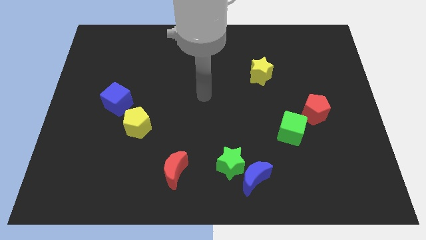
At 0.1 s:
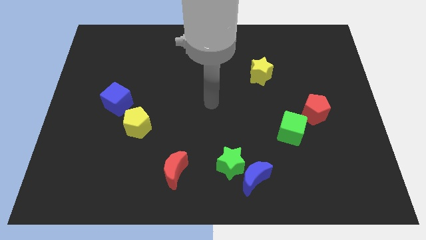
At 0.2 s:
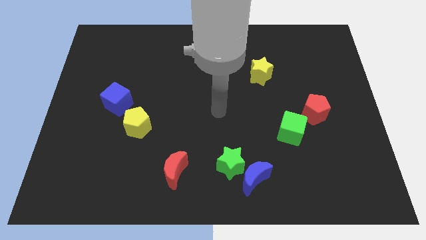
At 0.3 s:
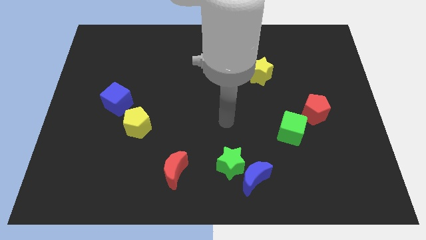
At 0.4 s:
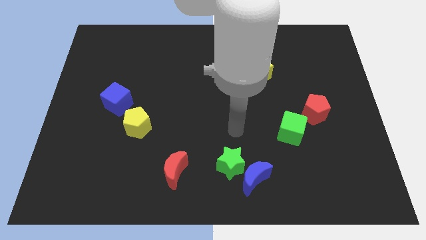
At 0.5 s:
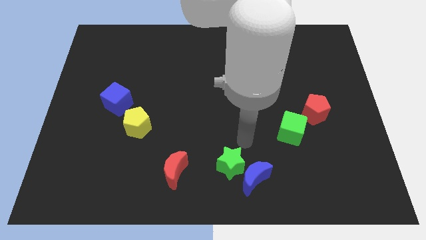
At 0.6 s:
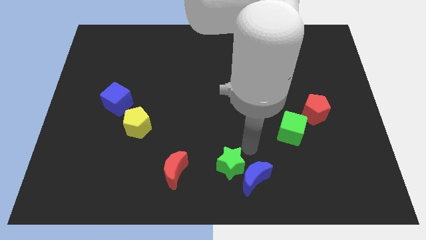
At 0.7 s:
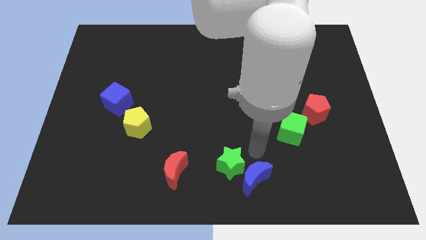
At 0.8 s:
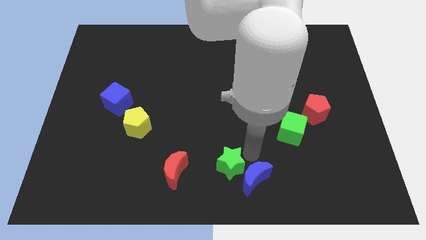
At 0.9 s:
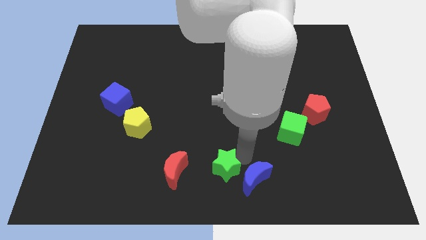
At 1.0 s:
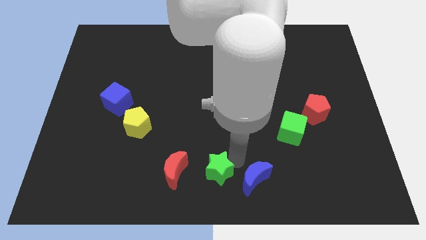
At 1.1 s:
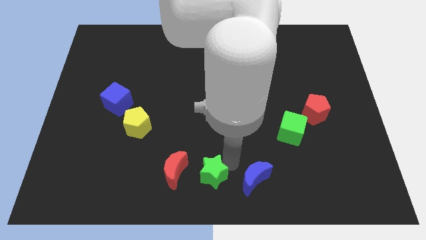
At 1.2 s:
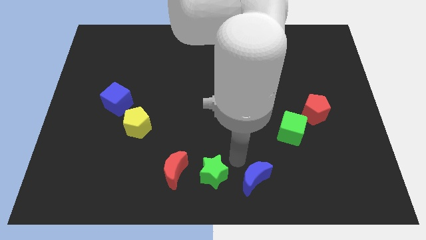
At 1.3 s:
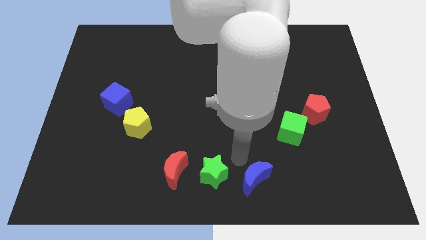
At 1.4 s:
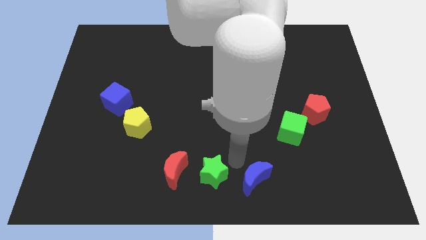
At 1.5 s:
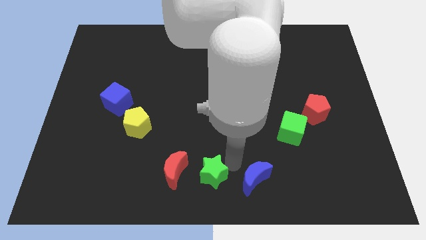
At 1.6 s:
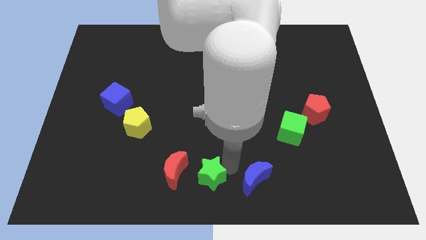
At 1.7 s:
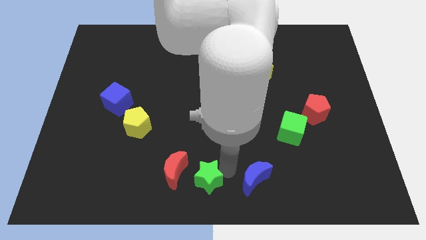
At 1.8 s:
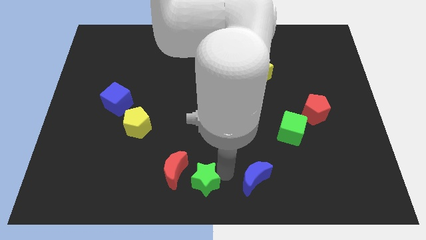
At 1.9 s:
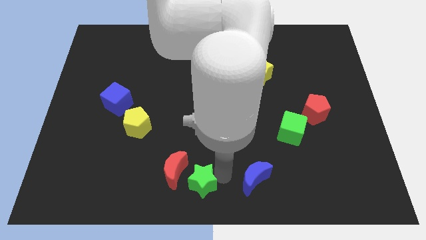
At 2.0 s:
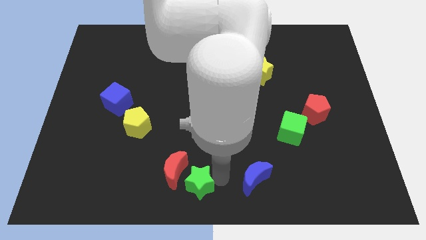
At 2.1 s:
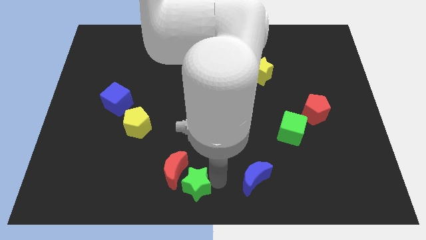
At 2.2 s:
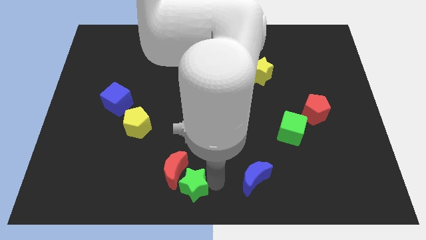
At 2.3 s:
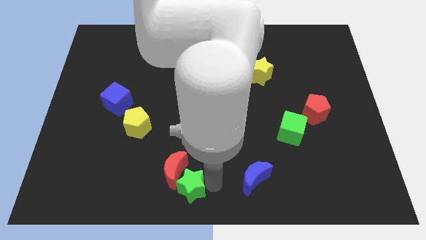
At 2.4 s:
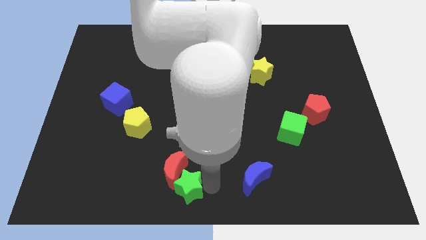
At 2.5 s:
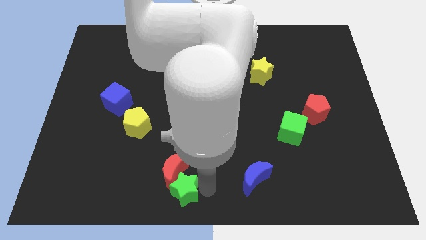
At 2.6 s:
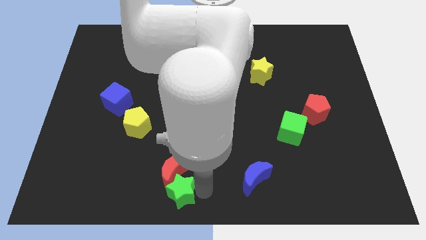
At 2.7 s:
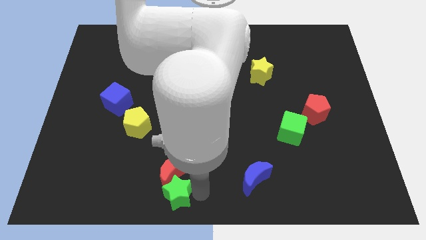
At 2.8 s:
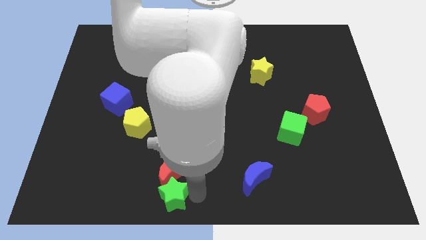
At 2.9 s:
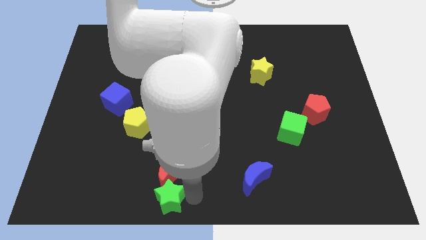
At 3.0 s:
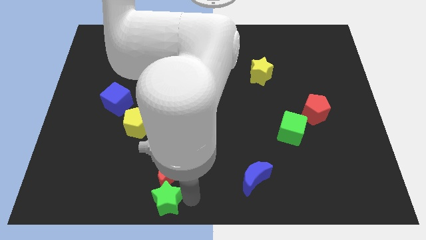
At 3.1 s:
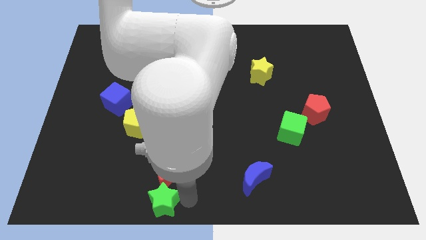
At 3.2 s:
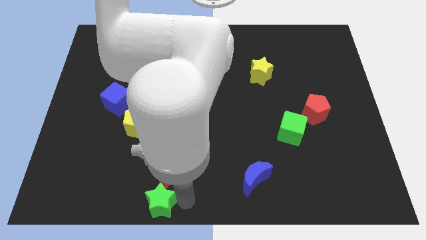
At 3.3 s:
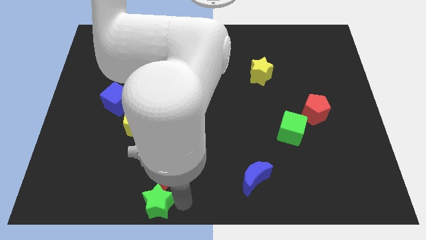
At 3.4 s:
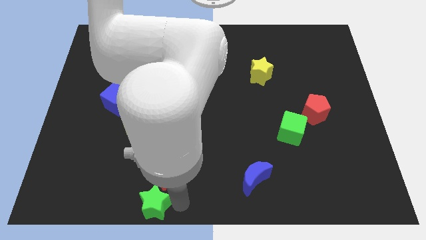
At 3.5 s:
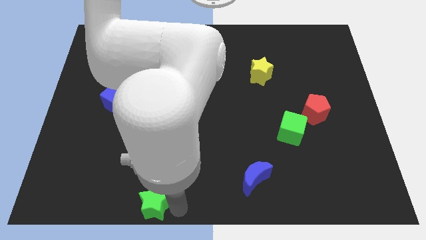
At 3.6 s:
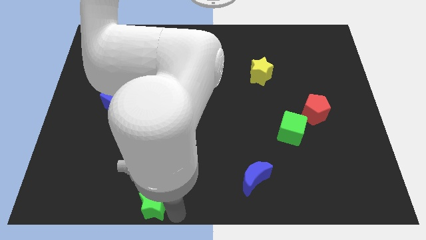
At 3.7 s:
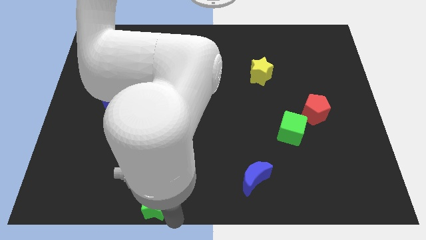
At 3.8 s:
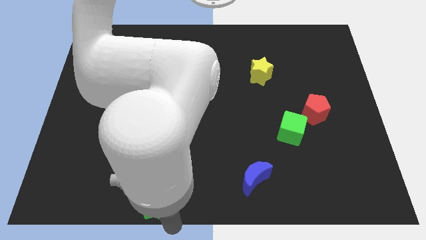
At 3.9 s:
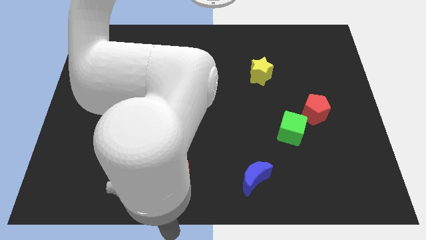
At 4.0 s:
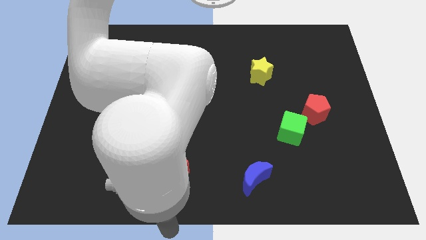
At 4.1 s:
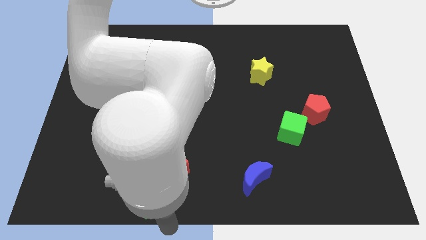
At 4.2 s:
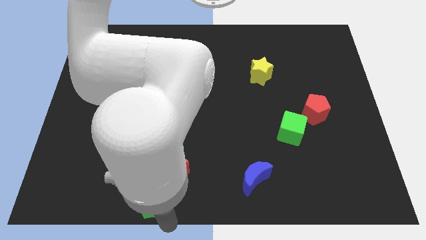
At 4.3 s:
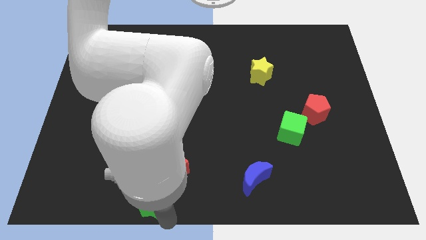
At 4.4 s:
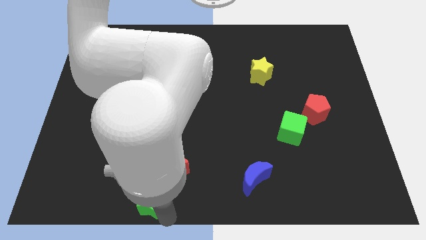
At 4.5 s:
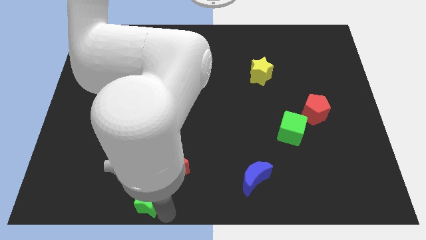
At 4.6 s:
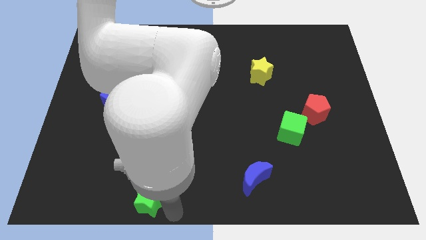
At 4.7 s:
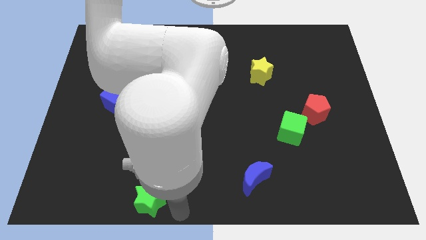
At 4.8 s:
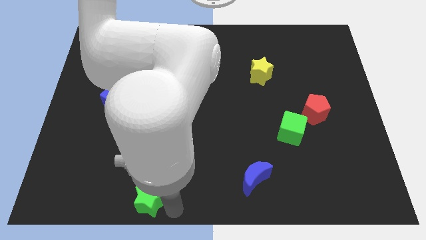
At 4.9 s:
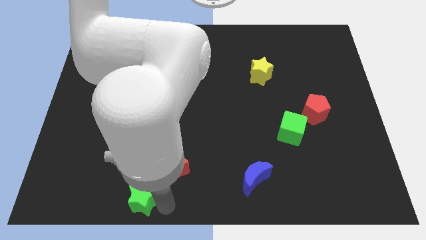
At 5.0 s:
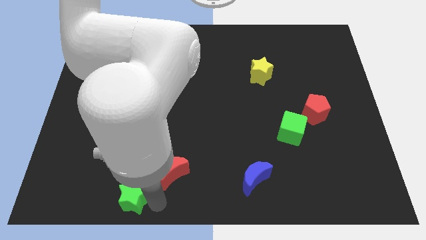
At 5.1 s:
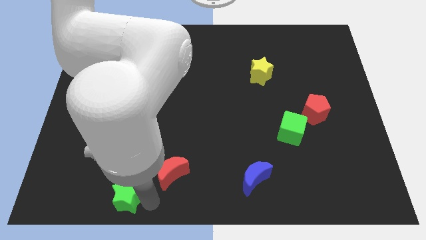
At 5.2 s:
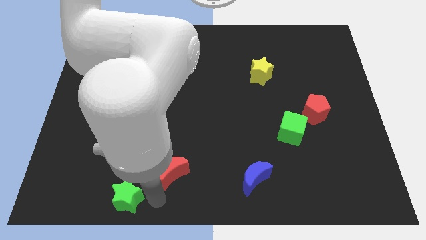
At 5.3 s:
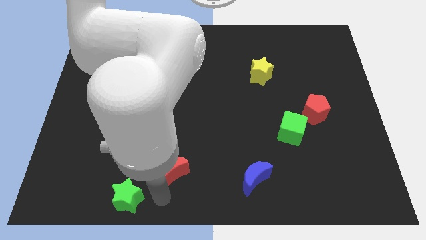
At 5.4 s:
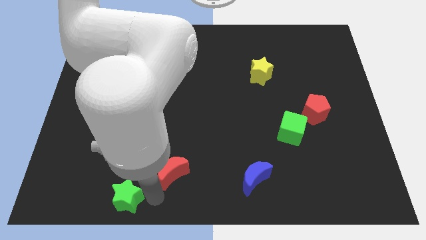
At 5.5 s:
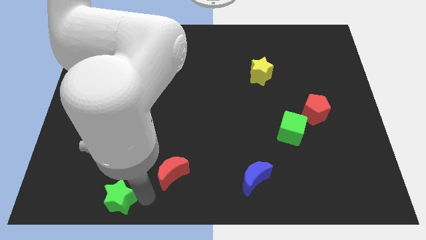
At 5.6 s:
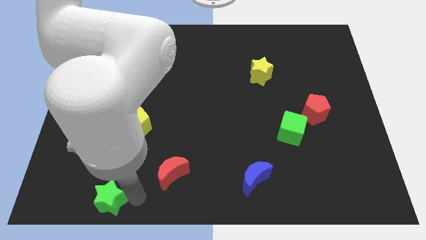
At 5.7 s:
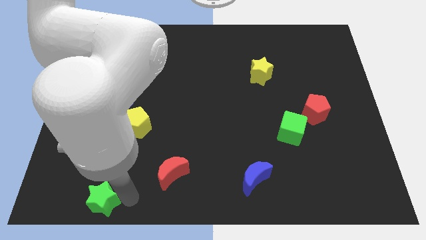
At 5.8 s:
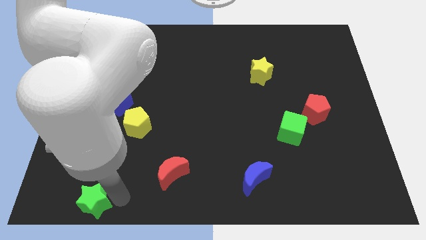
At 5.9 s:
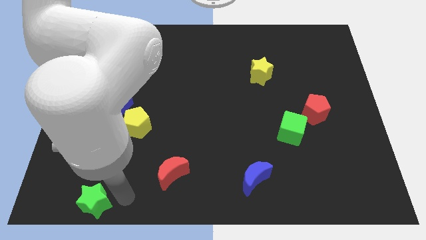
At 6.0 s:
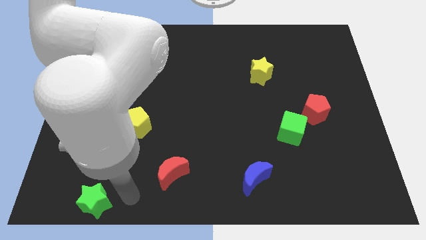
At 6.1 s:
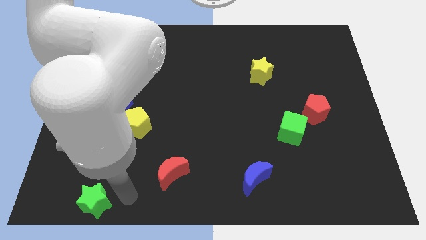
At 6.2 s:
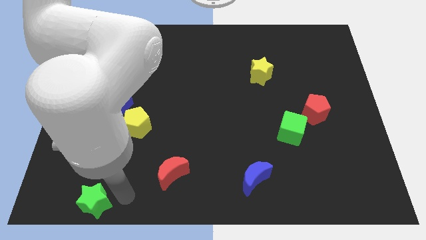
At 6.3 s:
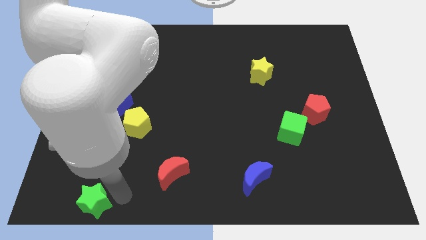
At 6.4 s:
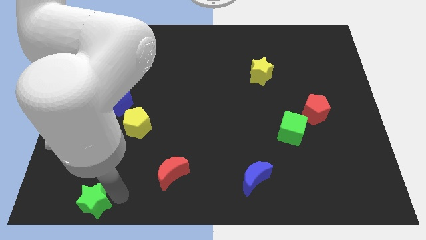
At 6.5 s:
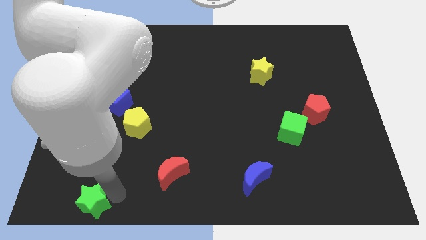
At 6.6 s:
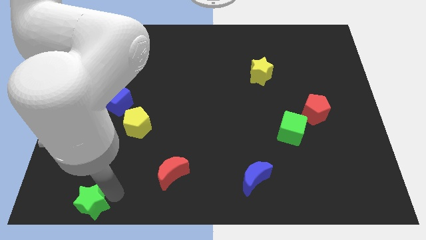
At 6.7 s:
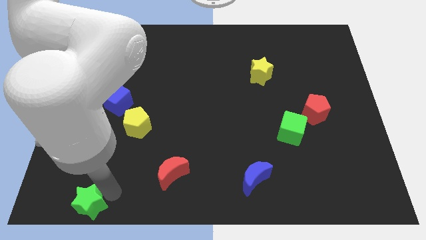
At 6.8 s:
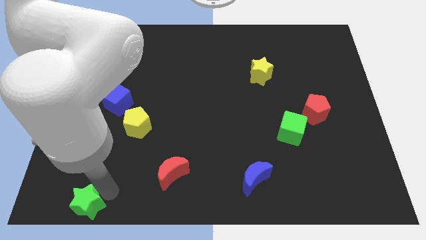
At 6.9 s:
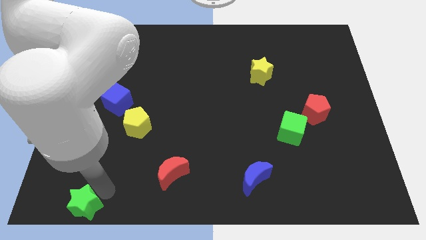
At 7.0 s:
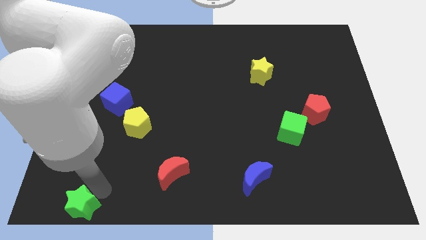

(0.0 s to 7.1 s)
move the green star to the lower left corner

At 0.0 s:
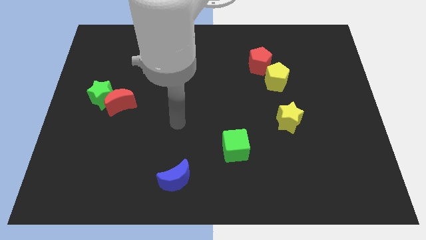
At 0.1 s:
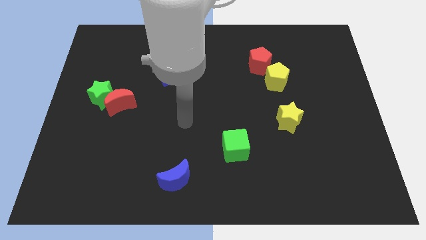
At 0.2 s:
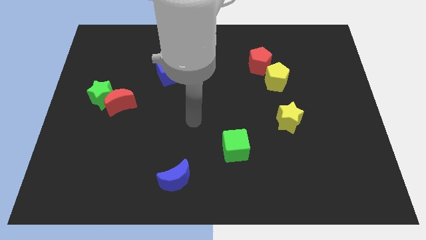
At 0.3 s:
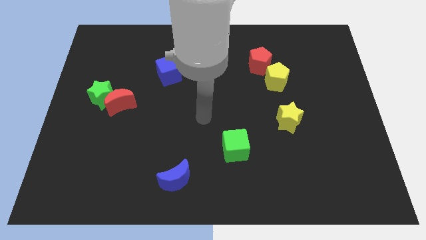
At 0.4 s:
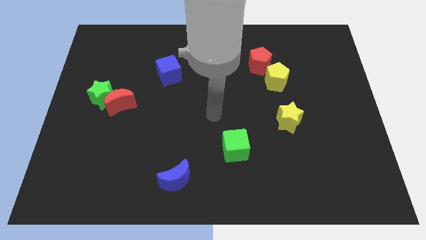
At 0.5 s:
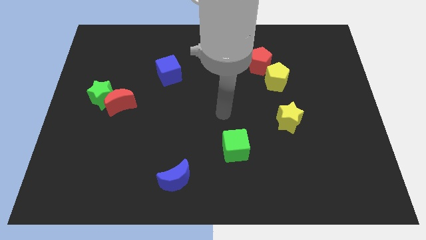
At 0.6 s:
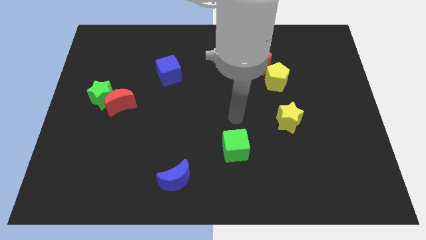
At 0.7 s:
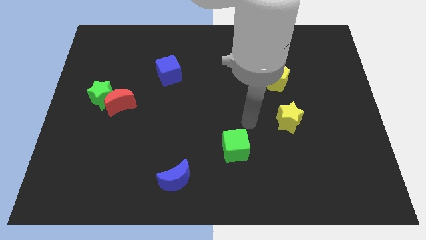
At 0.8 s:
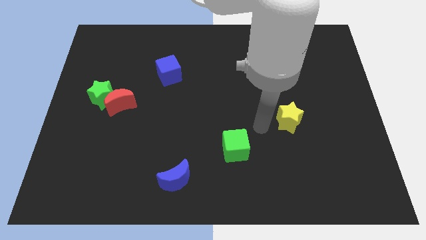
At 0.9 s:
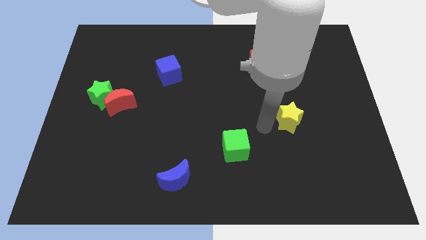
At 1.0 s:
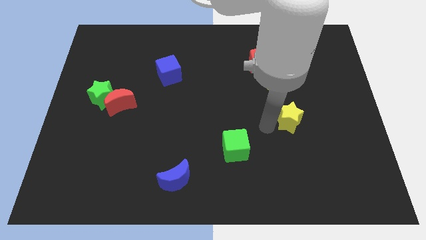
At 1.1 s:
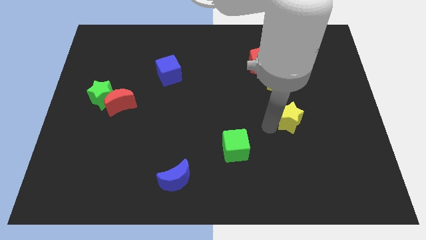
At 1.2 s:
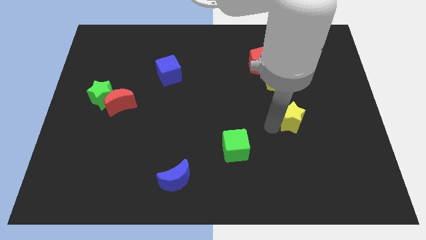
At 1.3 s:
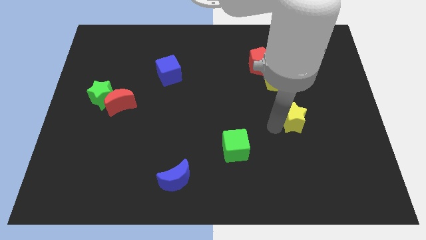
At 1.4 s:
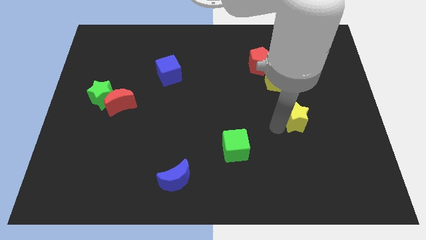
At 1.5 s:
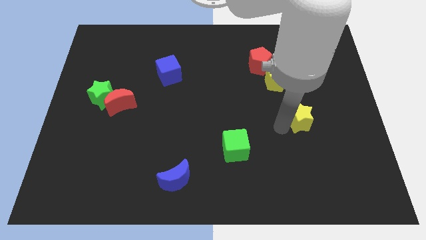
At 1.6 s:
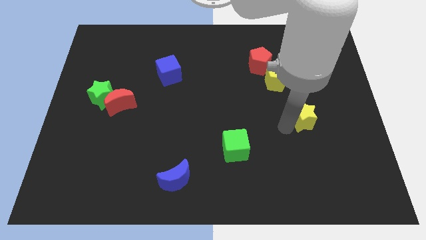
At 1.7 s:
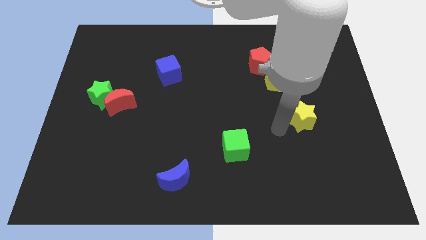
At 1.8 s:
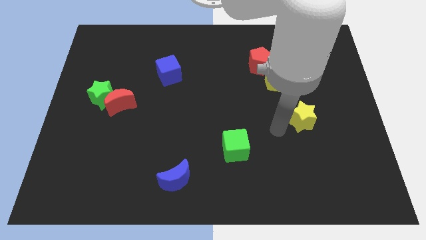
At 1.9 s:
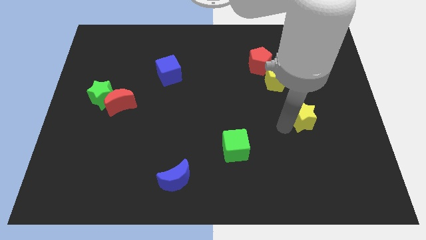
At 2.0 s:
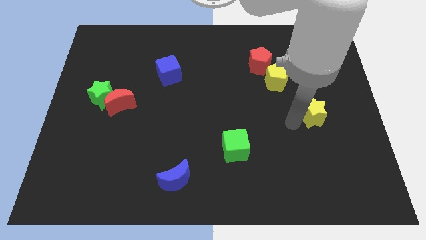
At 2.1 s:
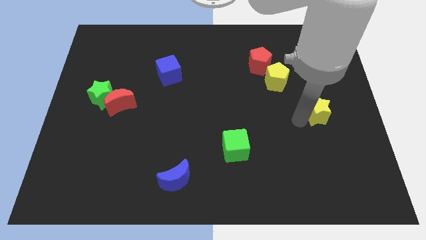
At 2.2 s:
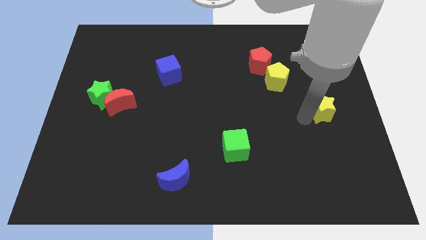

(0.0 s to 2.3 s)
slide the yellow star to the right side of the board
